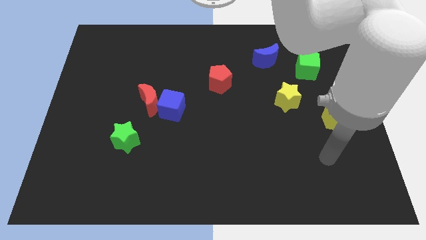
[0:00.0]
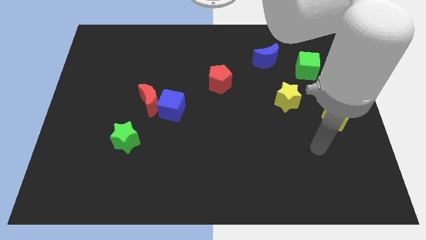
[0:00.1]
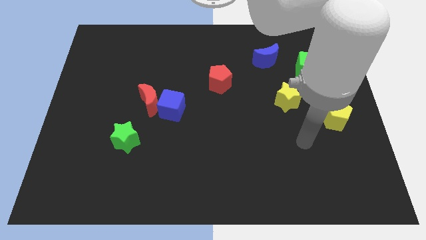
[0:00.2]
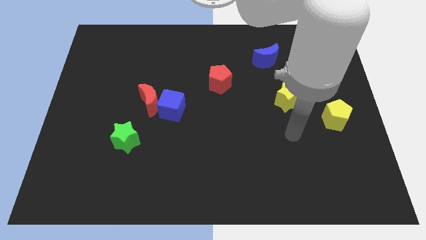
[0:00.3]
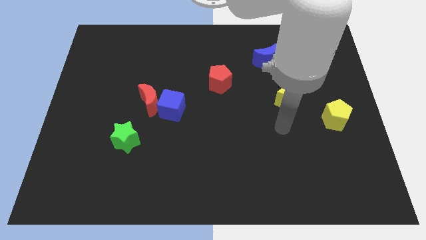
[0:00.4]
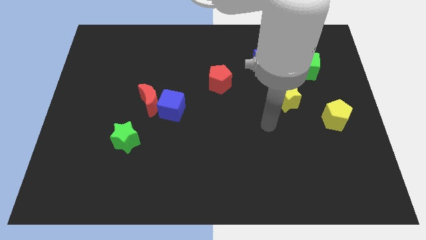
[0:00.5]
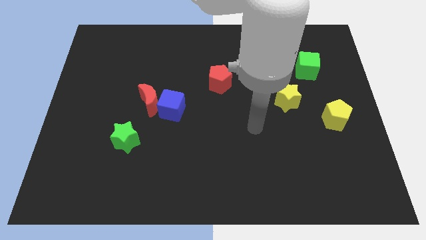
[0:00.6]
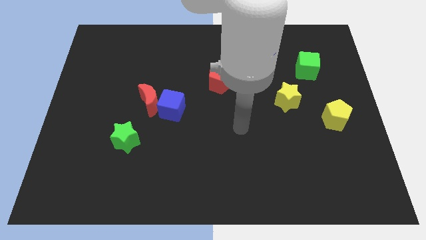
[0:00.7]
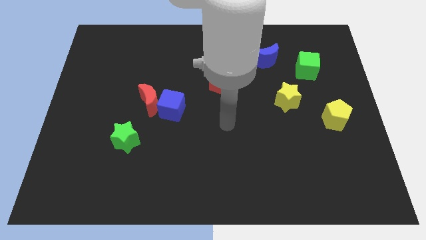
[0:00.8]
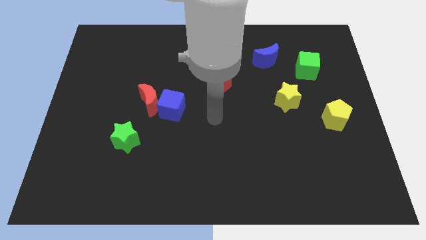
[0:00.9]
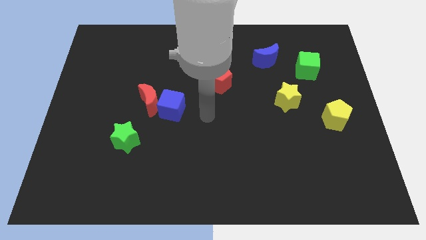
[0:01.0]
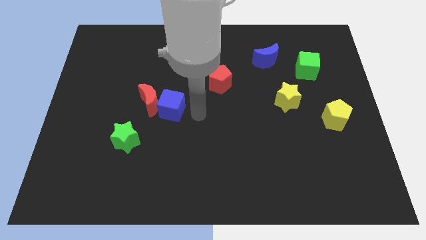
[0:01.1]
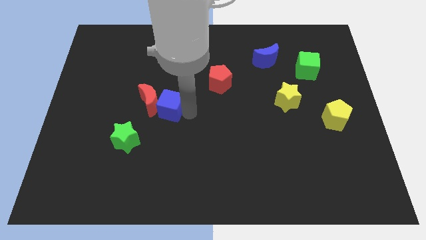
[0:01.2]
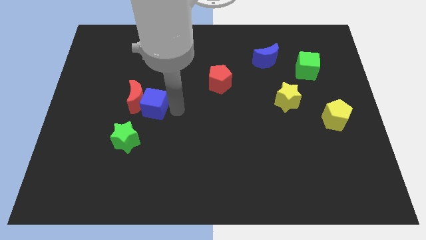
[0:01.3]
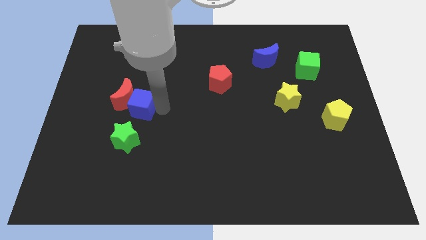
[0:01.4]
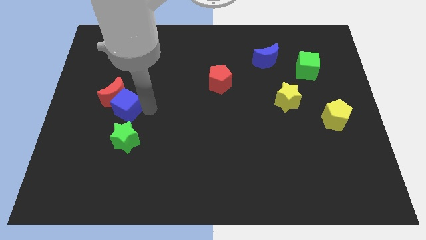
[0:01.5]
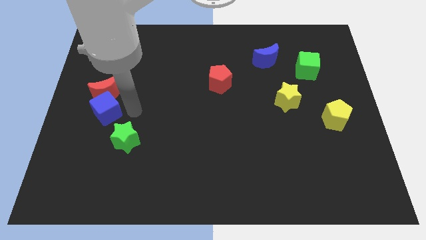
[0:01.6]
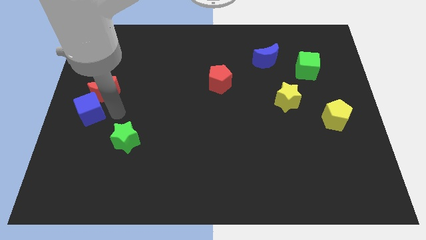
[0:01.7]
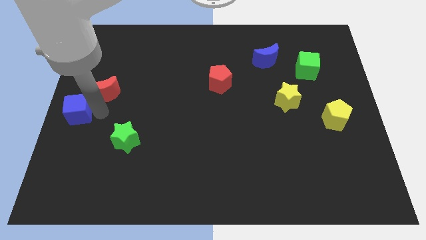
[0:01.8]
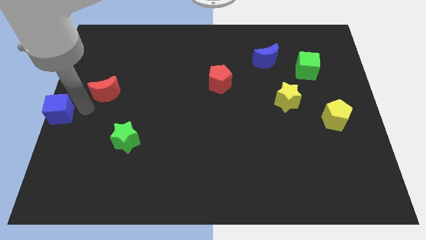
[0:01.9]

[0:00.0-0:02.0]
separate the red moon from the blue cube

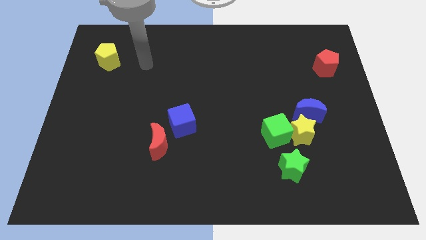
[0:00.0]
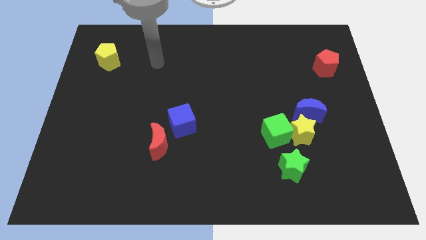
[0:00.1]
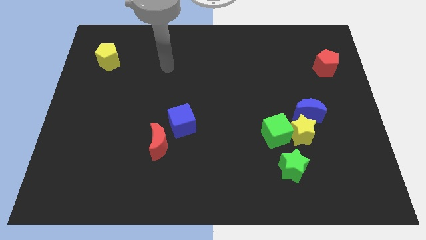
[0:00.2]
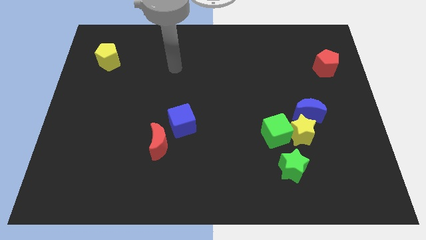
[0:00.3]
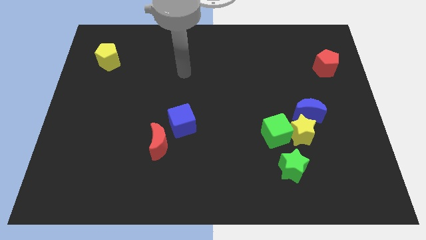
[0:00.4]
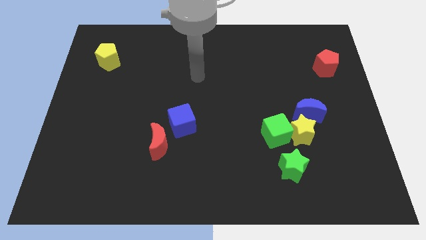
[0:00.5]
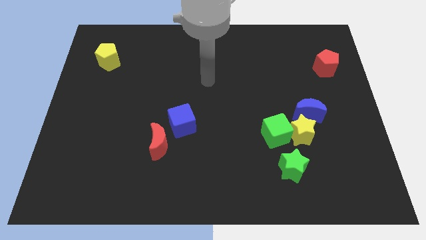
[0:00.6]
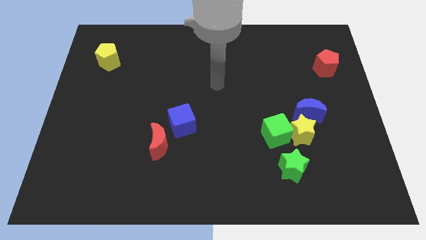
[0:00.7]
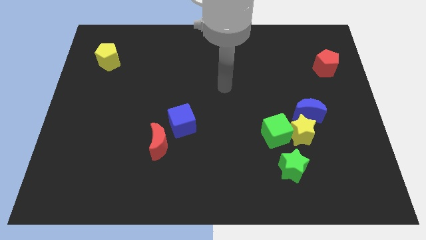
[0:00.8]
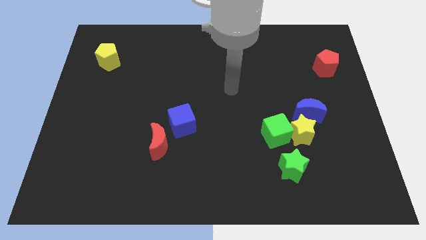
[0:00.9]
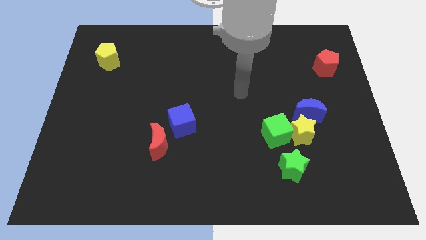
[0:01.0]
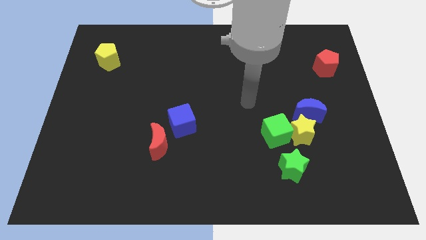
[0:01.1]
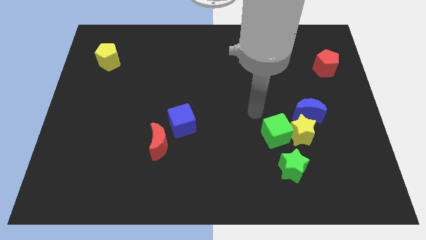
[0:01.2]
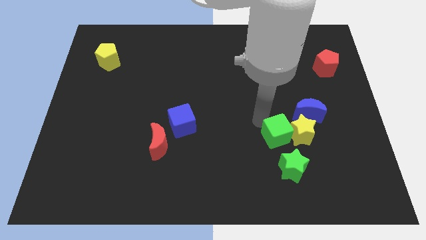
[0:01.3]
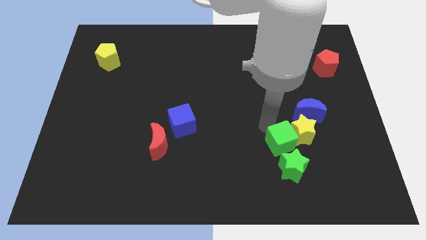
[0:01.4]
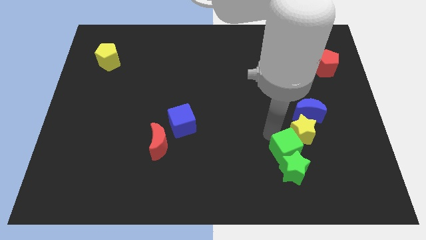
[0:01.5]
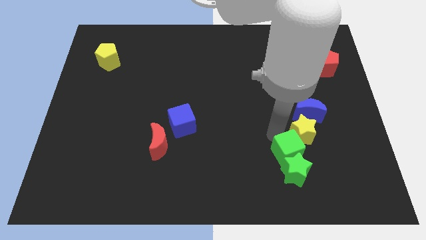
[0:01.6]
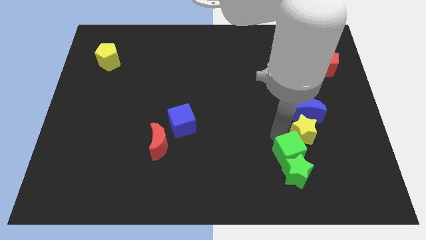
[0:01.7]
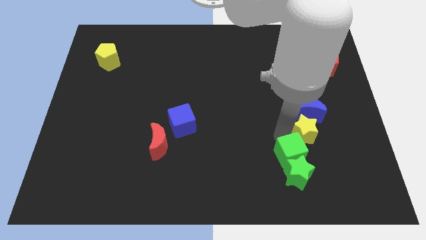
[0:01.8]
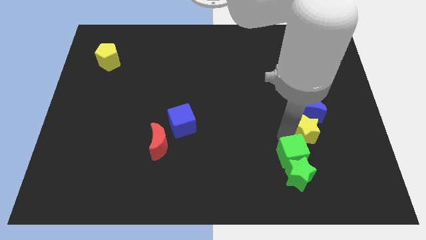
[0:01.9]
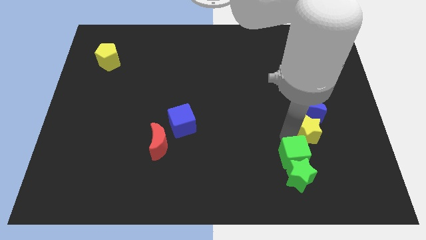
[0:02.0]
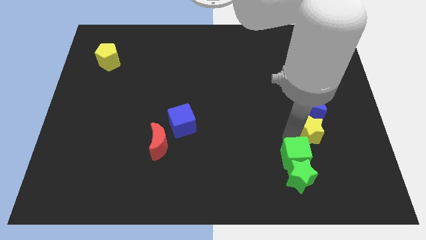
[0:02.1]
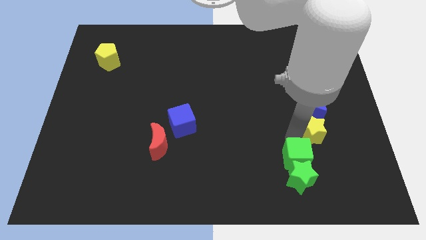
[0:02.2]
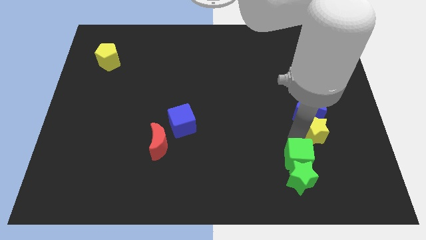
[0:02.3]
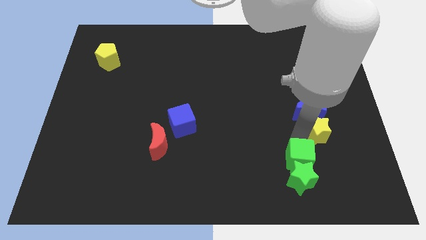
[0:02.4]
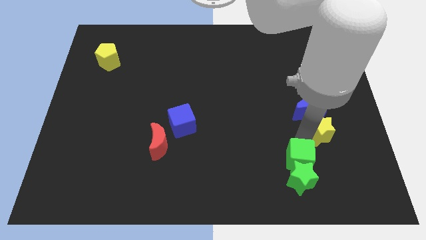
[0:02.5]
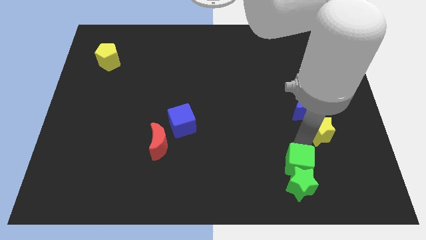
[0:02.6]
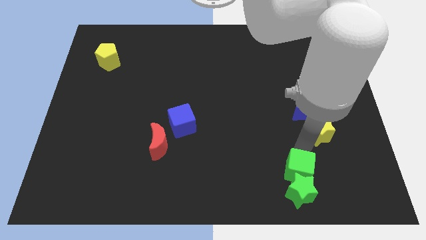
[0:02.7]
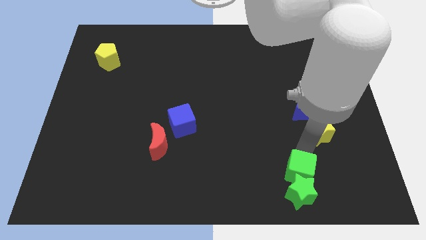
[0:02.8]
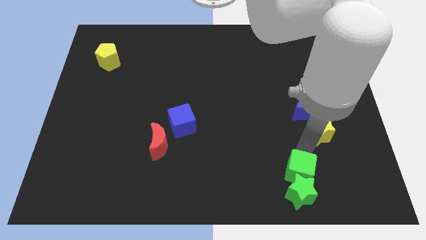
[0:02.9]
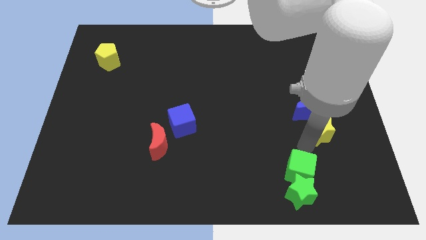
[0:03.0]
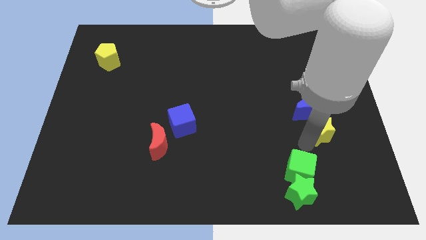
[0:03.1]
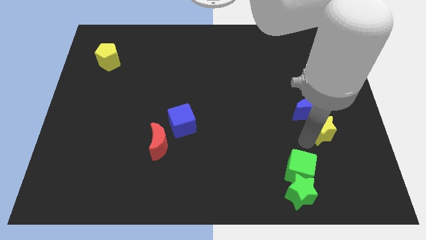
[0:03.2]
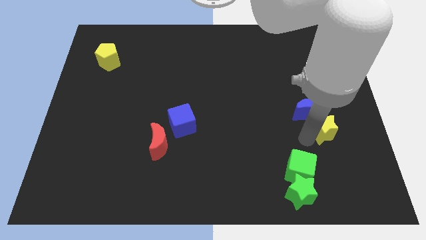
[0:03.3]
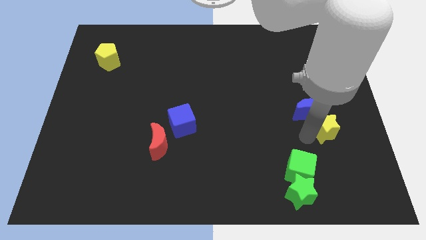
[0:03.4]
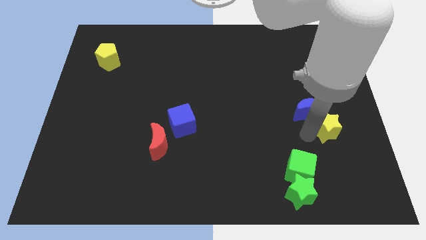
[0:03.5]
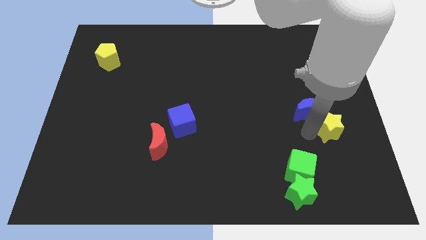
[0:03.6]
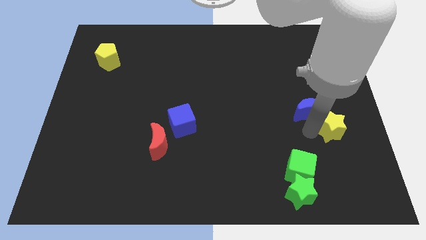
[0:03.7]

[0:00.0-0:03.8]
separate the yellow star from the group of blocks

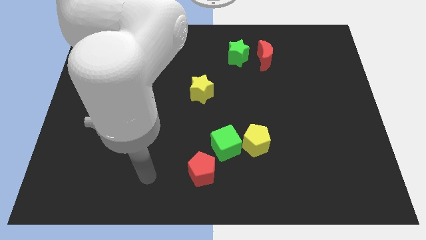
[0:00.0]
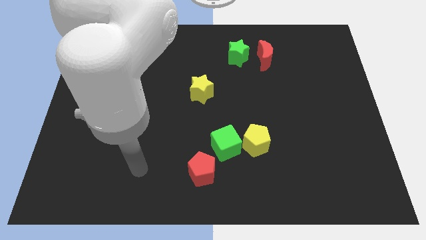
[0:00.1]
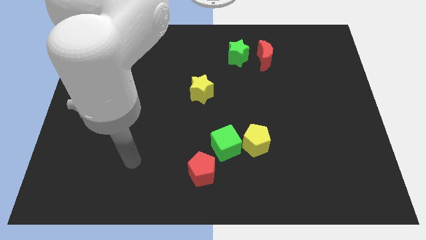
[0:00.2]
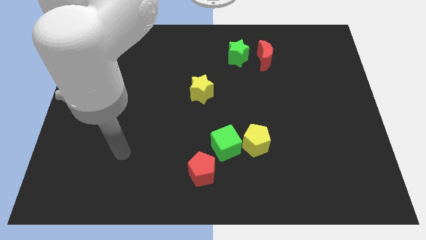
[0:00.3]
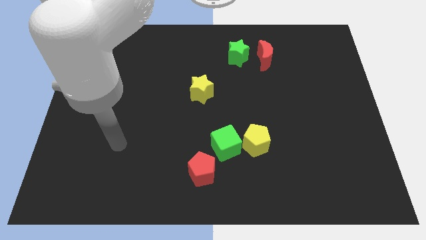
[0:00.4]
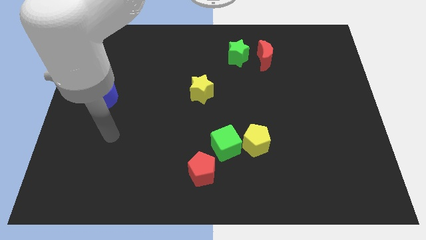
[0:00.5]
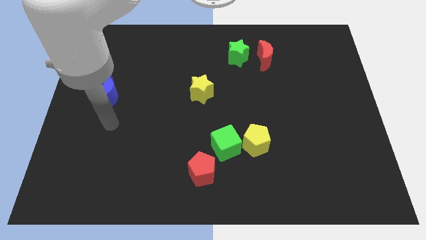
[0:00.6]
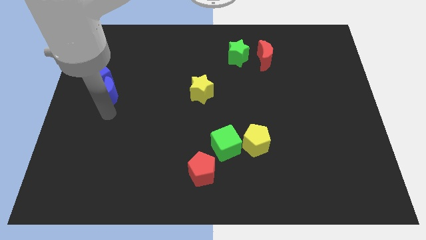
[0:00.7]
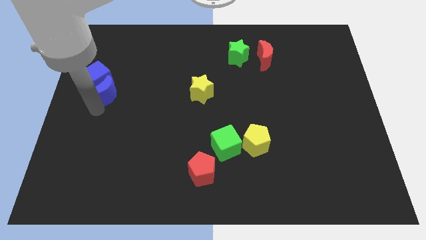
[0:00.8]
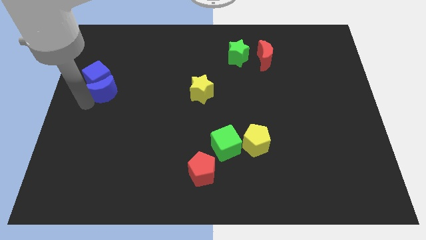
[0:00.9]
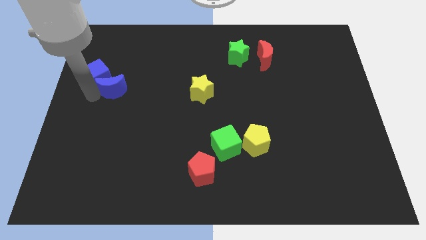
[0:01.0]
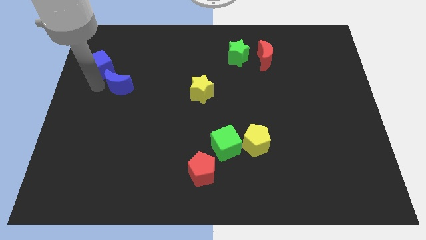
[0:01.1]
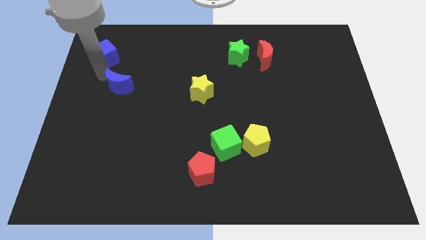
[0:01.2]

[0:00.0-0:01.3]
pull the blue moon apart from the blue cube

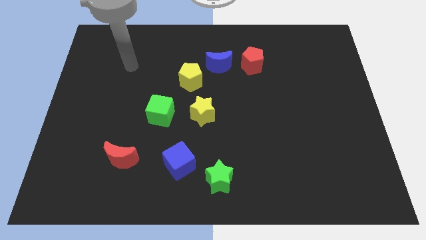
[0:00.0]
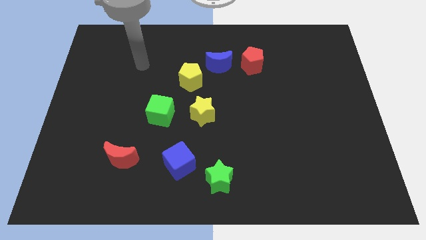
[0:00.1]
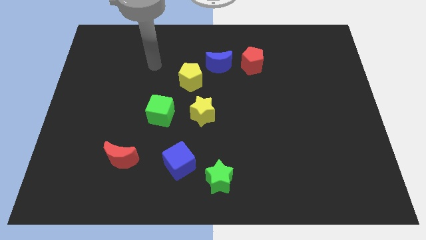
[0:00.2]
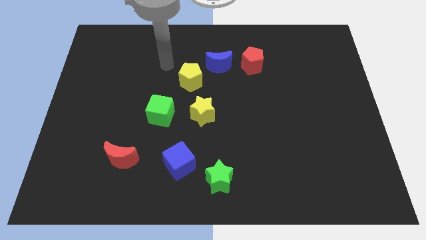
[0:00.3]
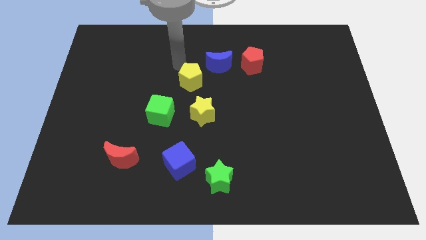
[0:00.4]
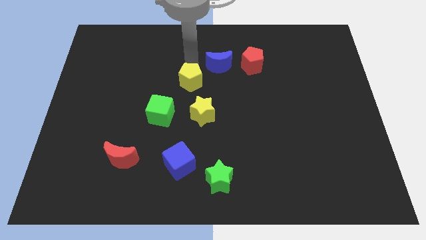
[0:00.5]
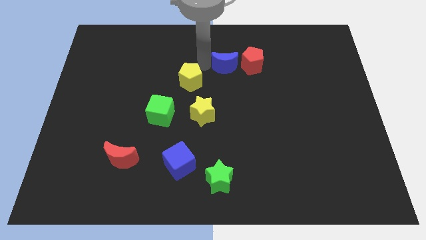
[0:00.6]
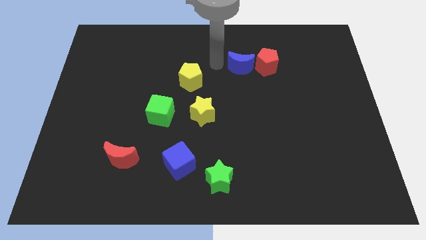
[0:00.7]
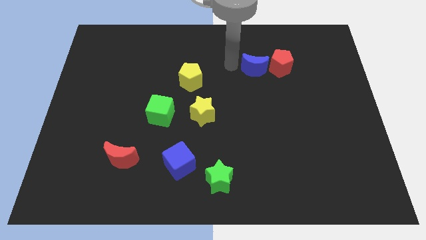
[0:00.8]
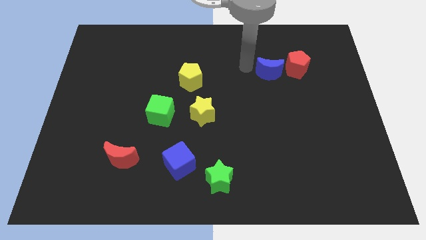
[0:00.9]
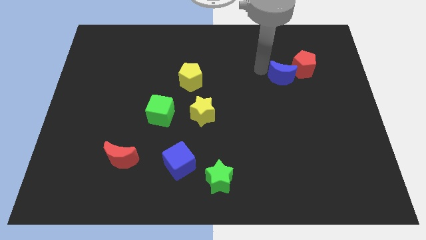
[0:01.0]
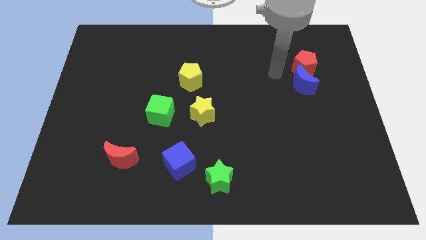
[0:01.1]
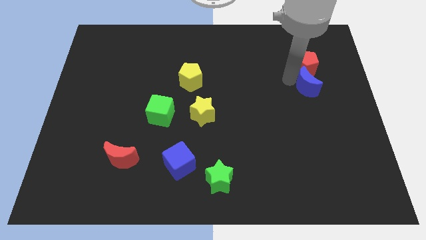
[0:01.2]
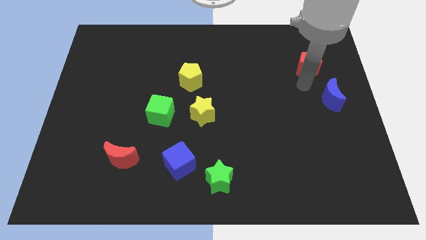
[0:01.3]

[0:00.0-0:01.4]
move the red pentagon away from the blue moon

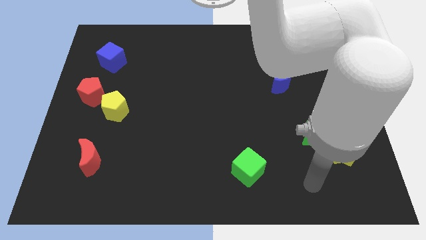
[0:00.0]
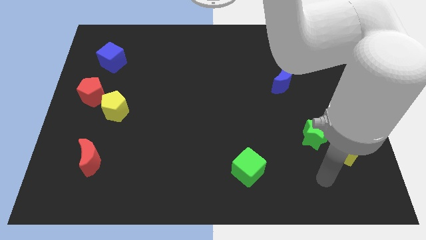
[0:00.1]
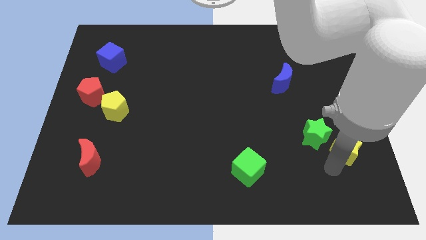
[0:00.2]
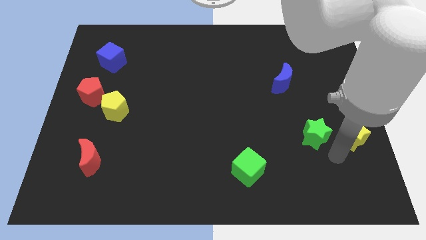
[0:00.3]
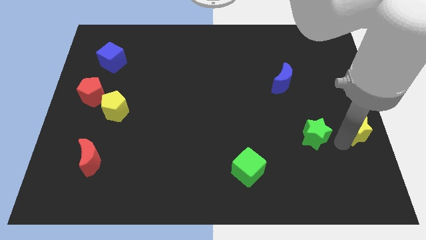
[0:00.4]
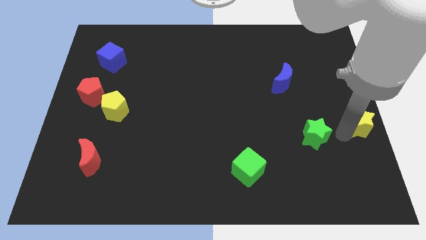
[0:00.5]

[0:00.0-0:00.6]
separate the green star from the yellow star

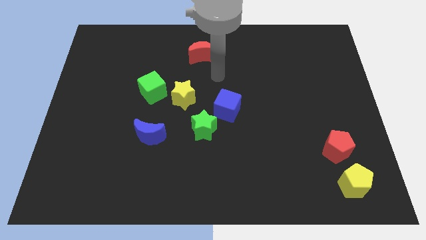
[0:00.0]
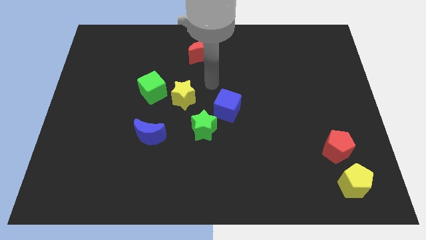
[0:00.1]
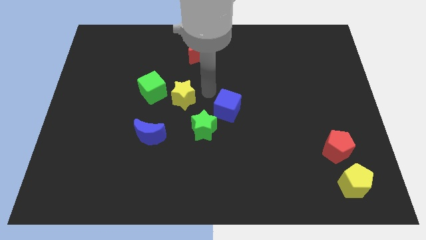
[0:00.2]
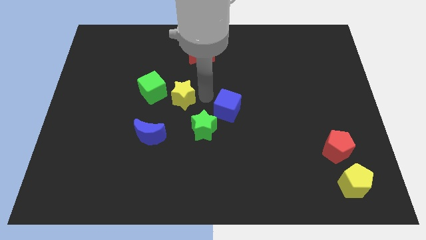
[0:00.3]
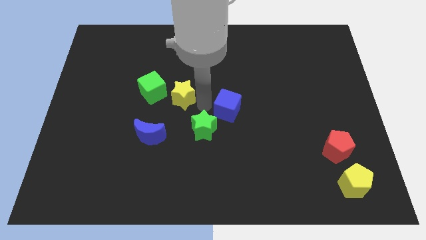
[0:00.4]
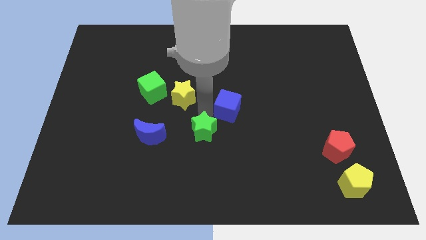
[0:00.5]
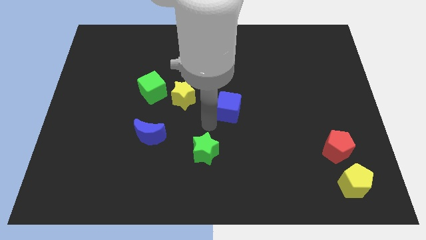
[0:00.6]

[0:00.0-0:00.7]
move the blue cube away from the green star
